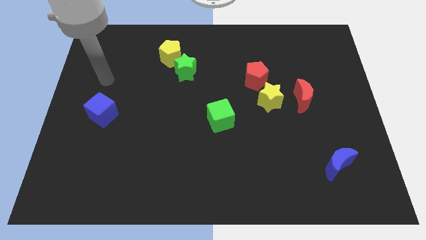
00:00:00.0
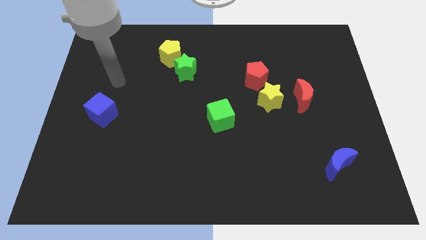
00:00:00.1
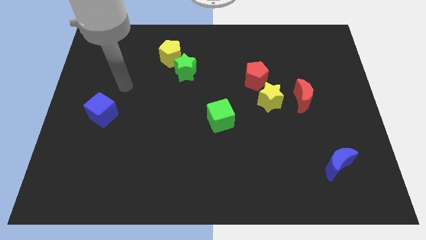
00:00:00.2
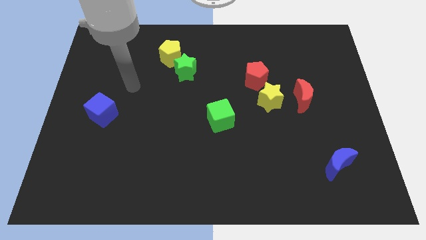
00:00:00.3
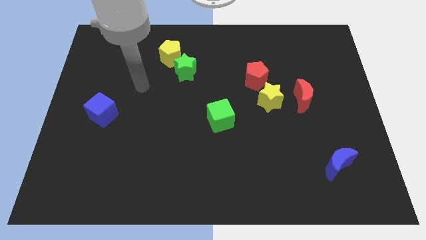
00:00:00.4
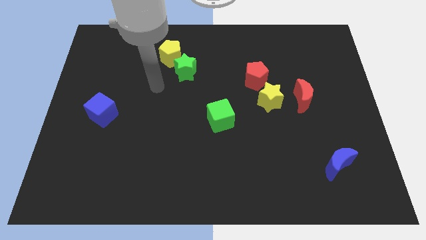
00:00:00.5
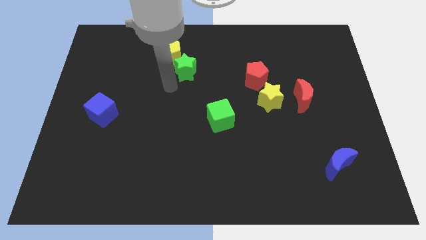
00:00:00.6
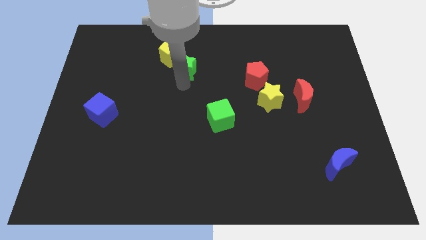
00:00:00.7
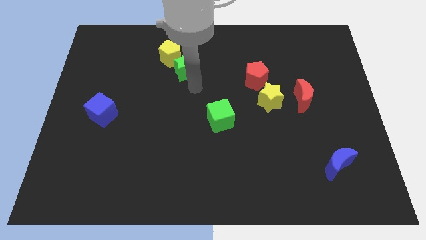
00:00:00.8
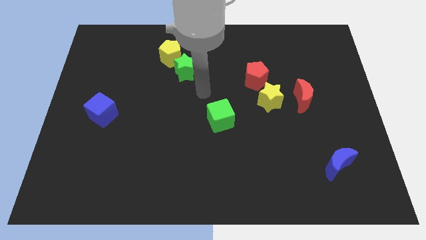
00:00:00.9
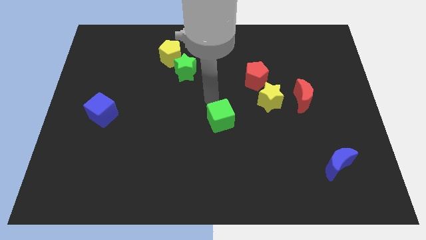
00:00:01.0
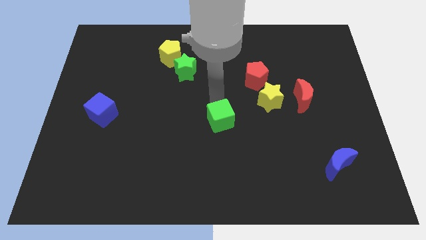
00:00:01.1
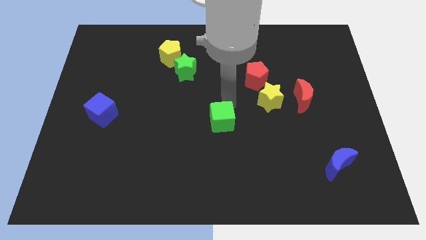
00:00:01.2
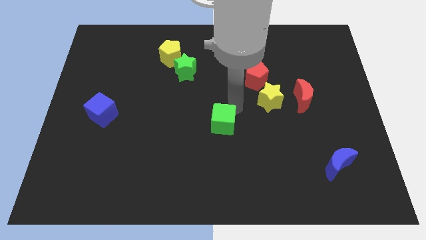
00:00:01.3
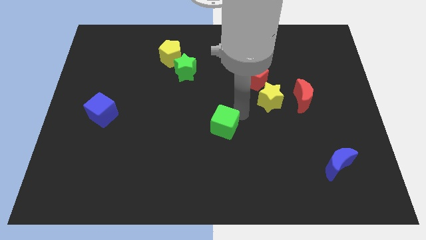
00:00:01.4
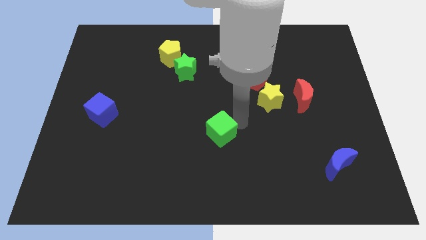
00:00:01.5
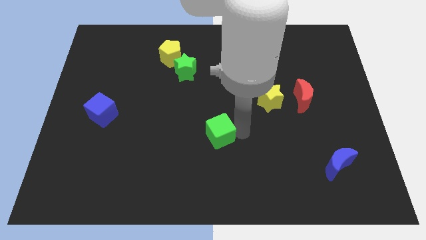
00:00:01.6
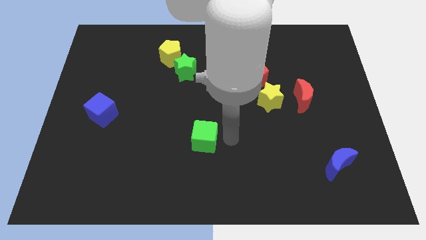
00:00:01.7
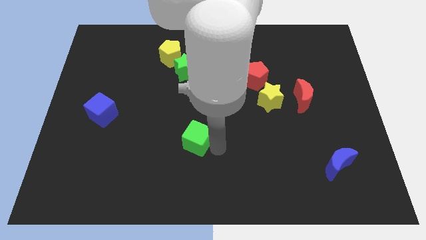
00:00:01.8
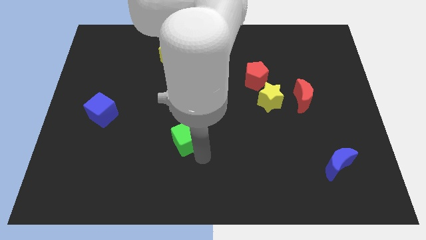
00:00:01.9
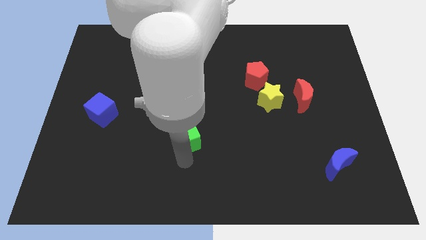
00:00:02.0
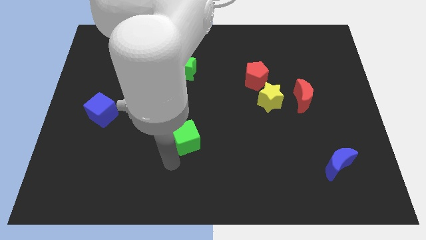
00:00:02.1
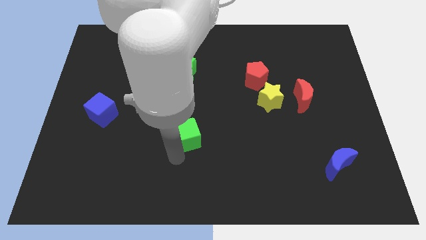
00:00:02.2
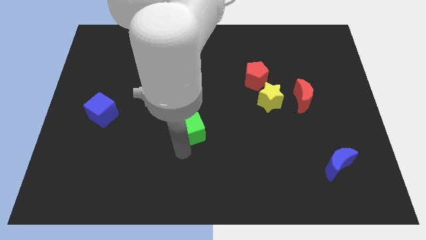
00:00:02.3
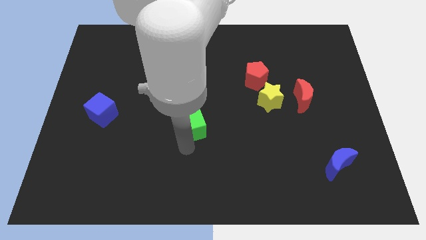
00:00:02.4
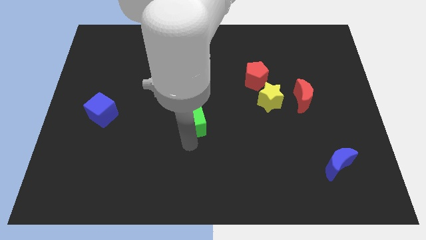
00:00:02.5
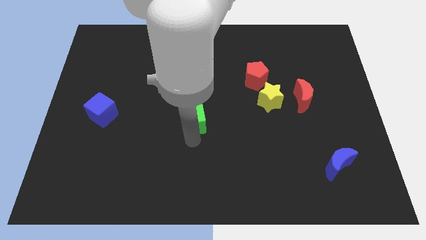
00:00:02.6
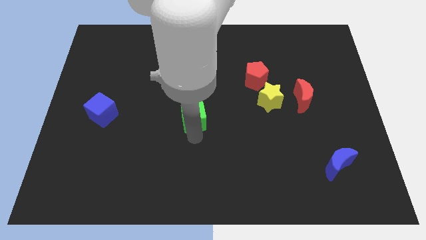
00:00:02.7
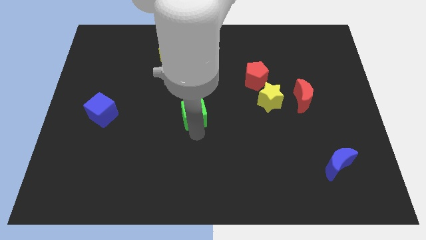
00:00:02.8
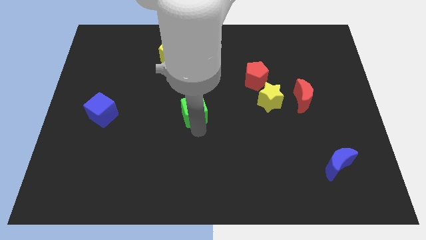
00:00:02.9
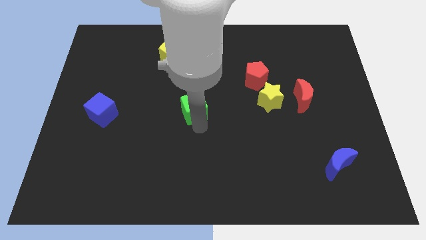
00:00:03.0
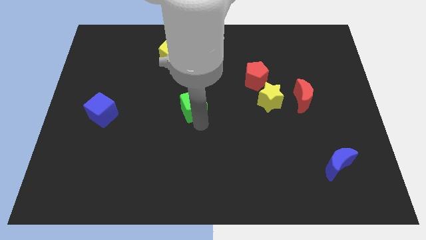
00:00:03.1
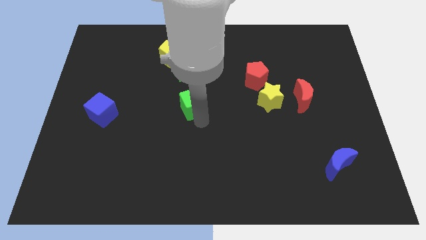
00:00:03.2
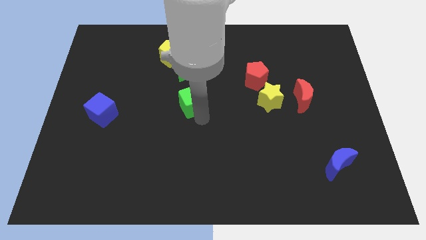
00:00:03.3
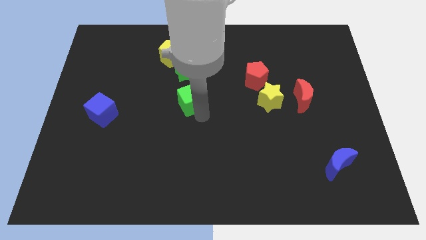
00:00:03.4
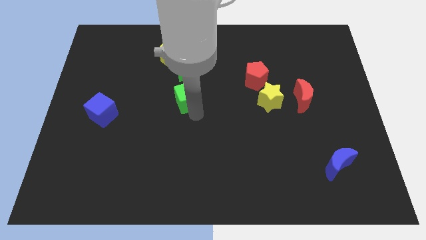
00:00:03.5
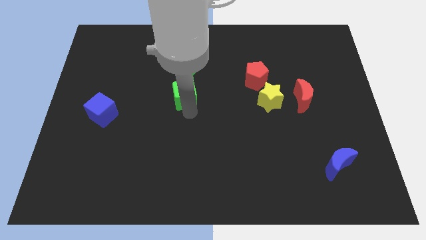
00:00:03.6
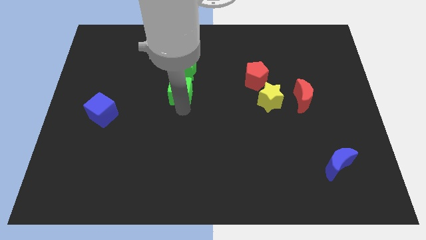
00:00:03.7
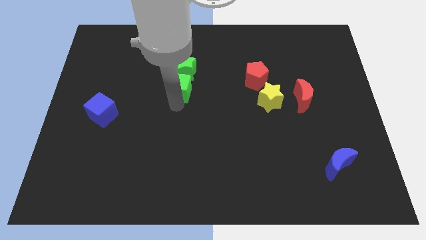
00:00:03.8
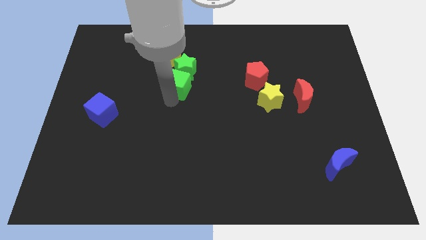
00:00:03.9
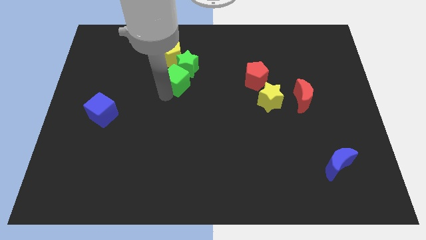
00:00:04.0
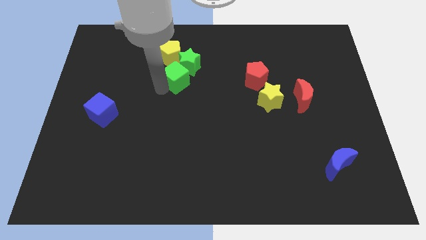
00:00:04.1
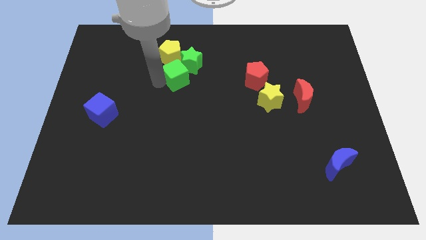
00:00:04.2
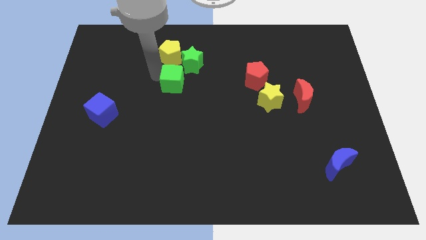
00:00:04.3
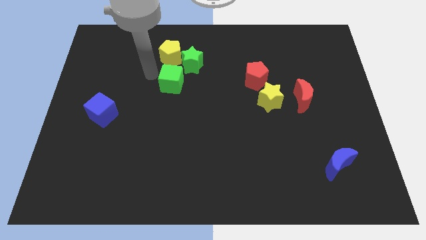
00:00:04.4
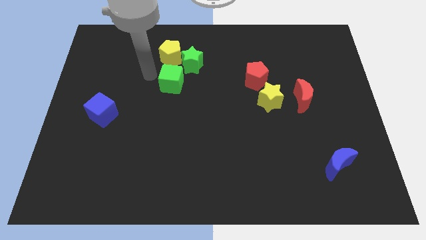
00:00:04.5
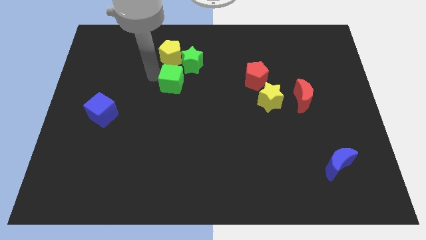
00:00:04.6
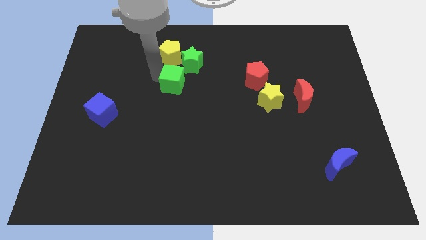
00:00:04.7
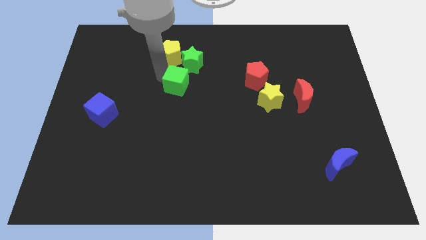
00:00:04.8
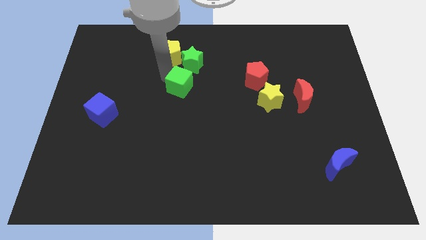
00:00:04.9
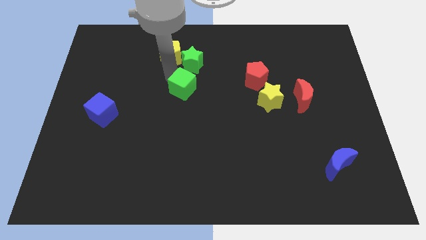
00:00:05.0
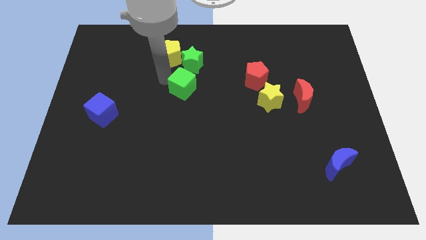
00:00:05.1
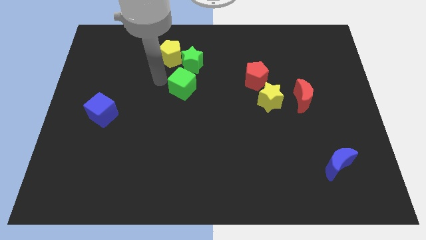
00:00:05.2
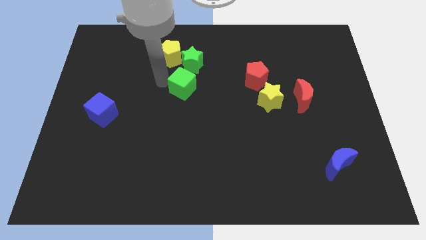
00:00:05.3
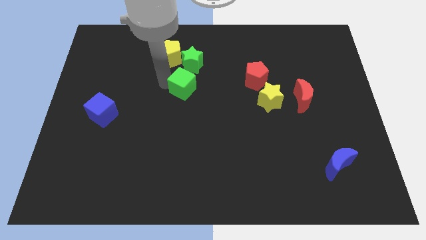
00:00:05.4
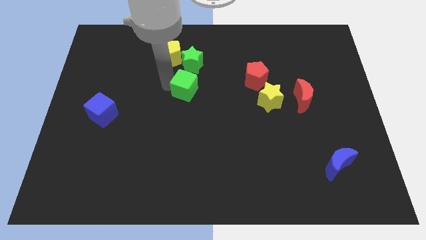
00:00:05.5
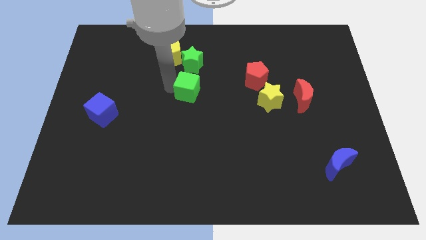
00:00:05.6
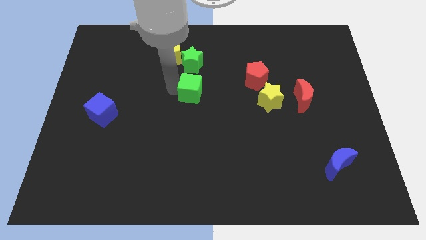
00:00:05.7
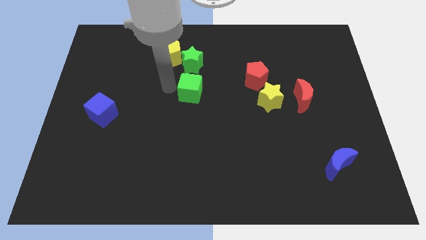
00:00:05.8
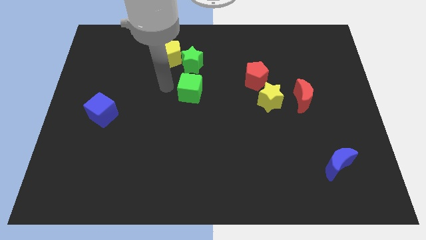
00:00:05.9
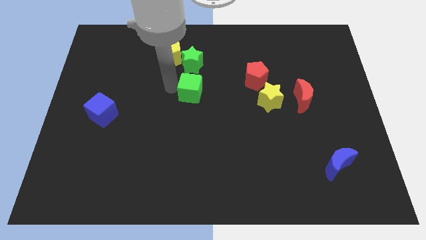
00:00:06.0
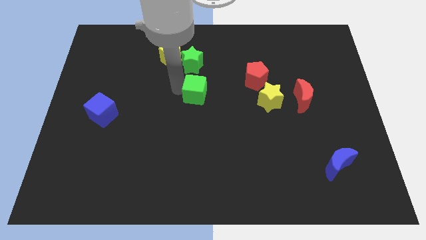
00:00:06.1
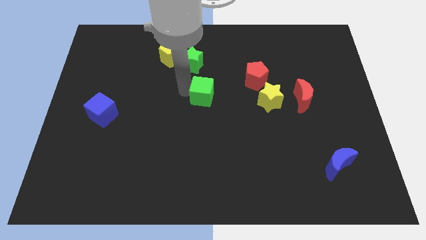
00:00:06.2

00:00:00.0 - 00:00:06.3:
slightly push the green cube upwards

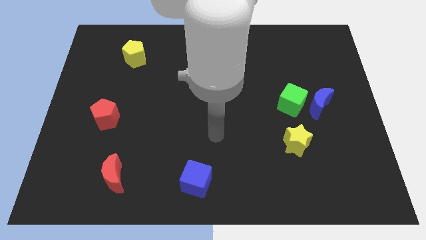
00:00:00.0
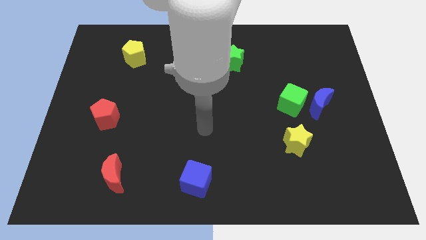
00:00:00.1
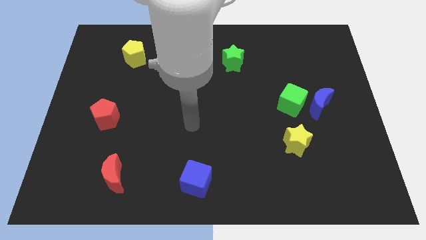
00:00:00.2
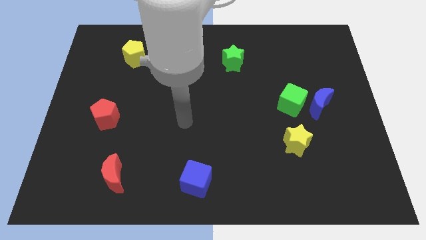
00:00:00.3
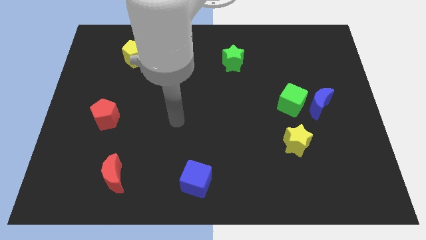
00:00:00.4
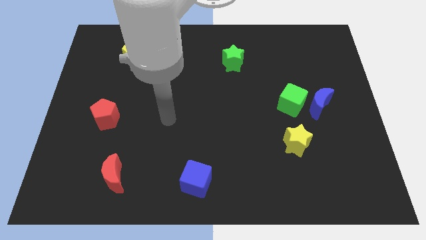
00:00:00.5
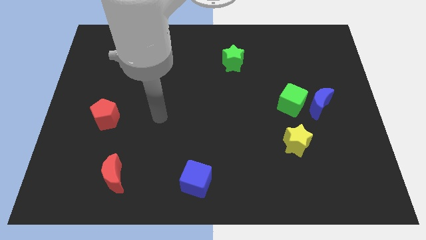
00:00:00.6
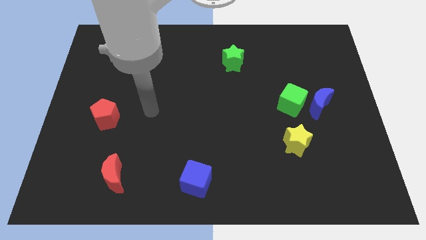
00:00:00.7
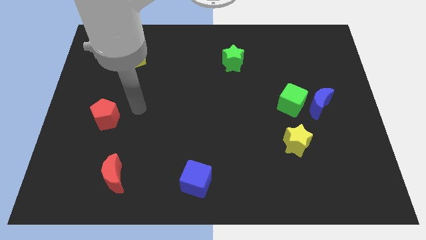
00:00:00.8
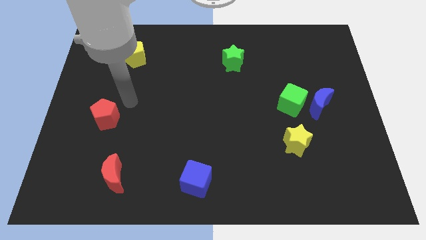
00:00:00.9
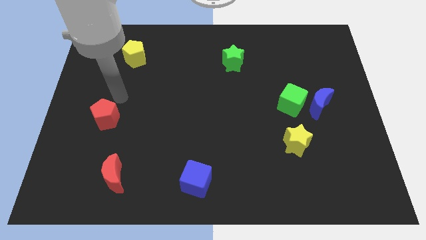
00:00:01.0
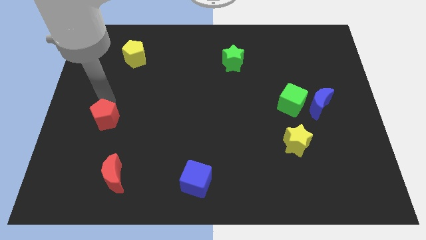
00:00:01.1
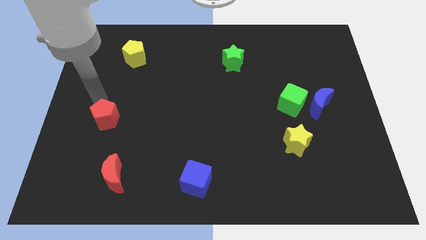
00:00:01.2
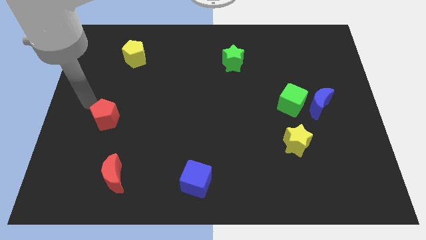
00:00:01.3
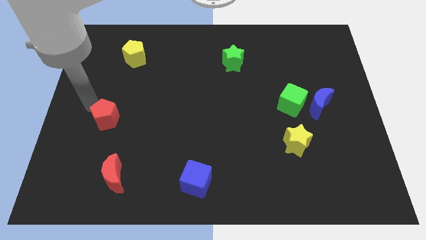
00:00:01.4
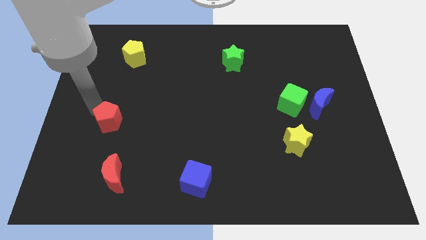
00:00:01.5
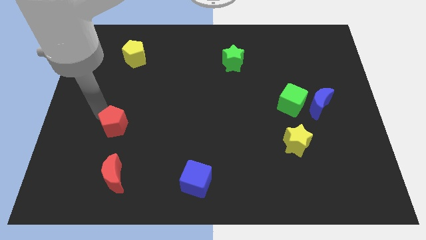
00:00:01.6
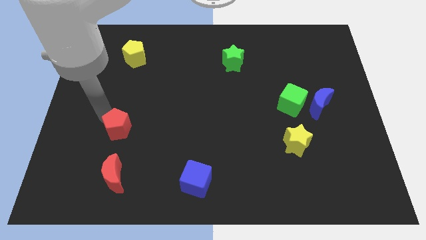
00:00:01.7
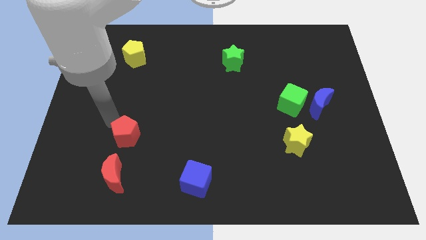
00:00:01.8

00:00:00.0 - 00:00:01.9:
slightly push the red pentagon down and right
